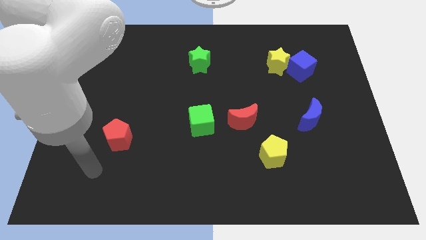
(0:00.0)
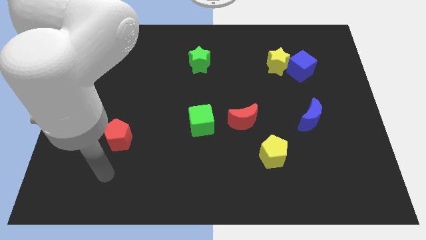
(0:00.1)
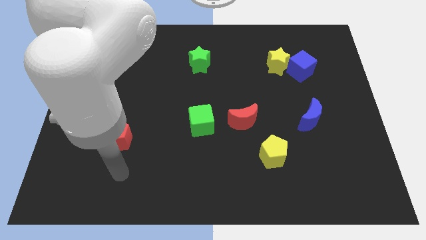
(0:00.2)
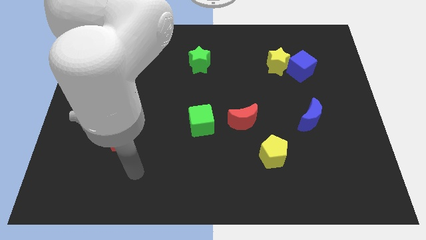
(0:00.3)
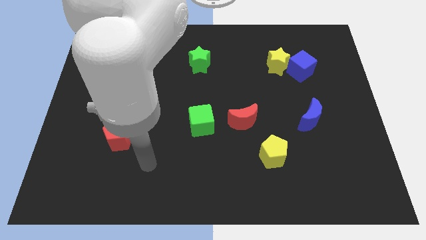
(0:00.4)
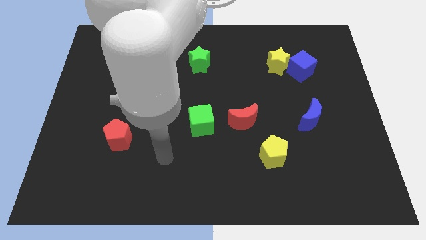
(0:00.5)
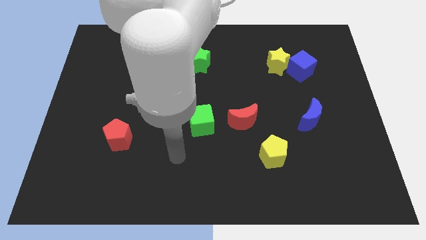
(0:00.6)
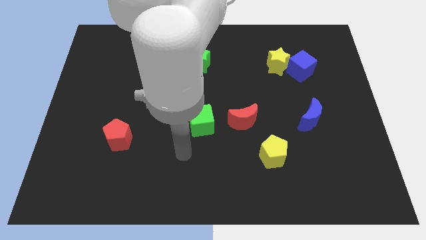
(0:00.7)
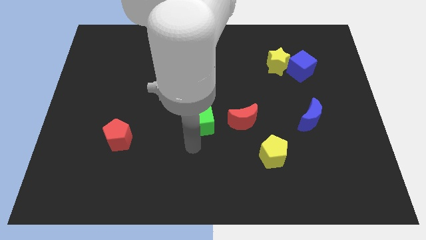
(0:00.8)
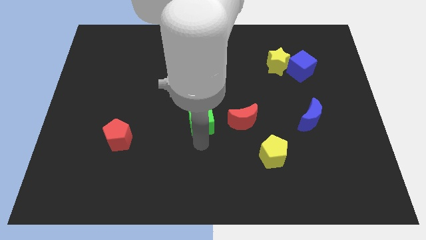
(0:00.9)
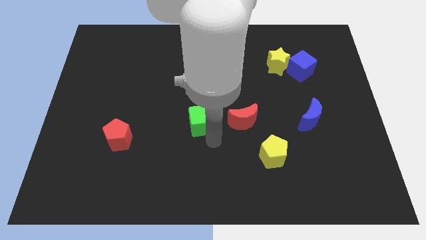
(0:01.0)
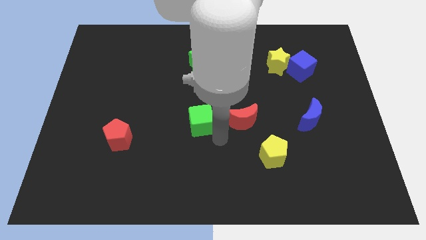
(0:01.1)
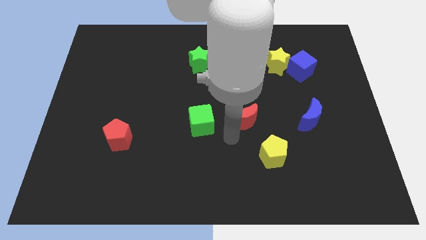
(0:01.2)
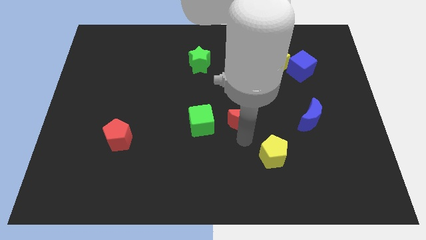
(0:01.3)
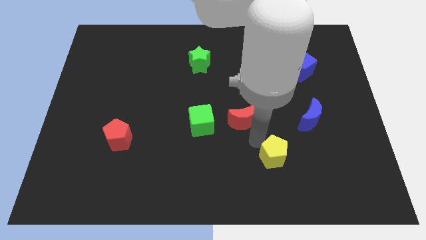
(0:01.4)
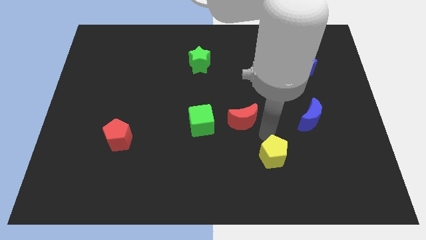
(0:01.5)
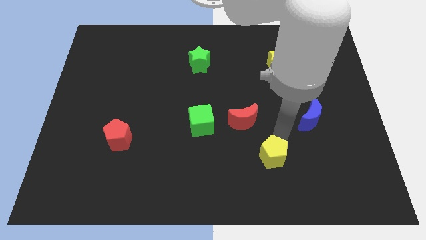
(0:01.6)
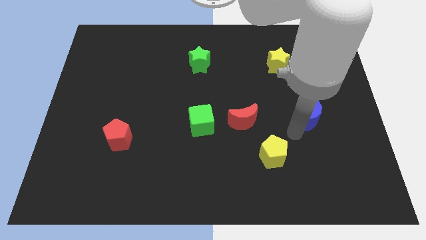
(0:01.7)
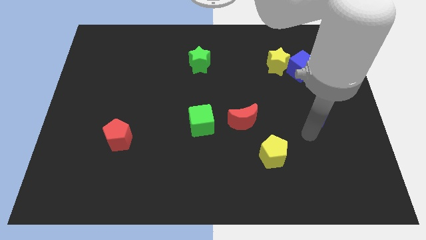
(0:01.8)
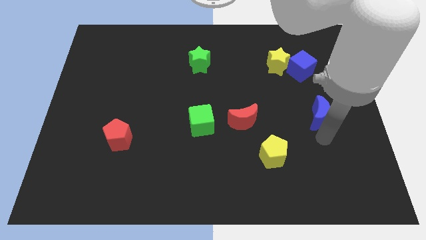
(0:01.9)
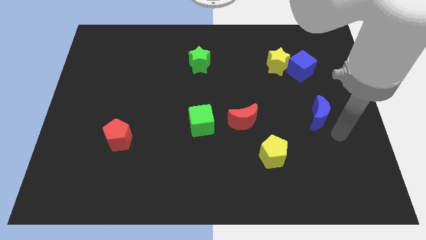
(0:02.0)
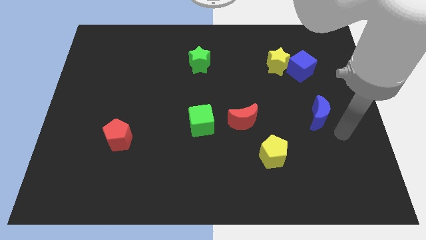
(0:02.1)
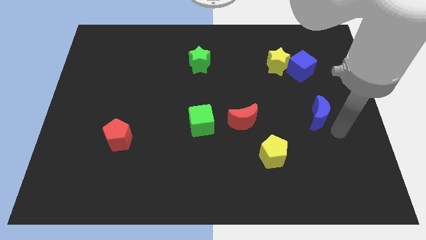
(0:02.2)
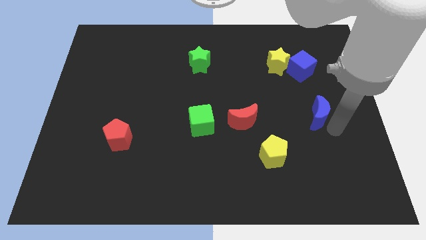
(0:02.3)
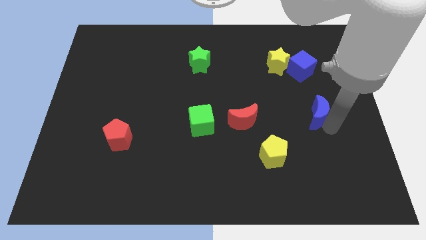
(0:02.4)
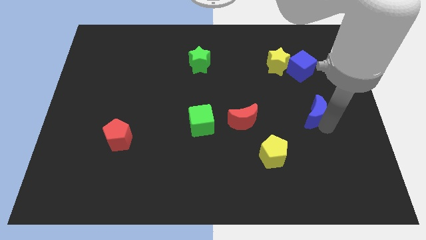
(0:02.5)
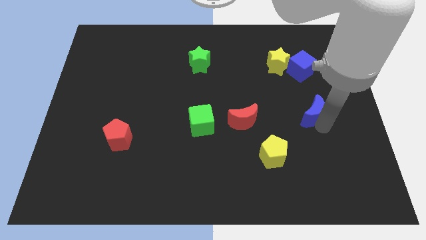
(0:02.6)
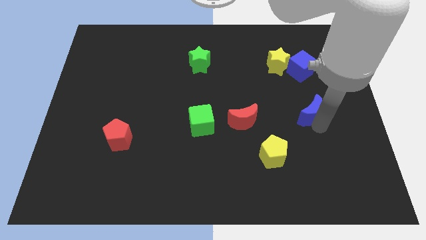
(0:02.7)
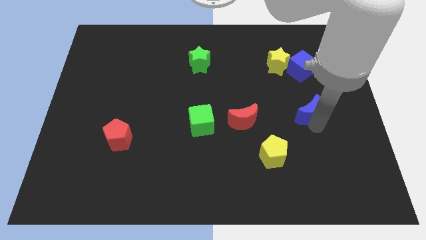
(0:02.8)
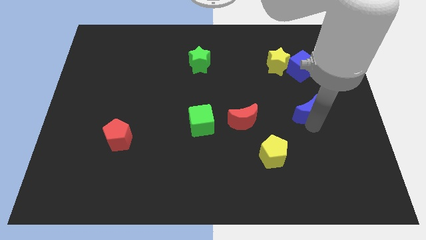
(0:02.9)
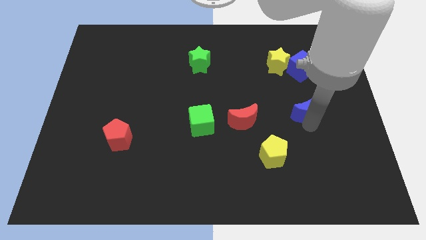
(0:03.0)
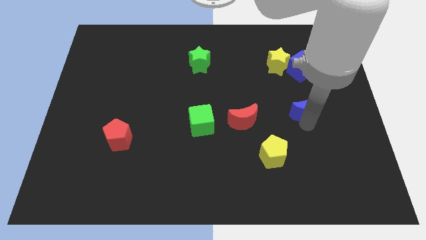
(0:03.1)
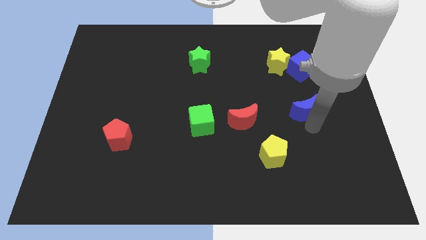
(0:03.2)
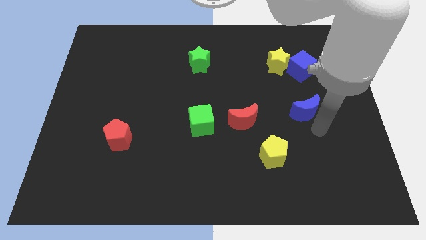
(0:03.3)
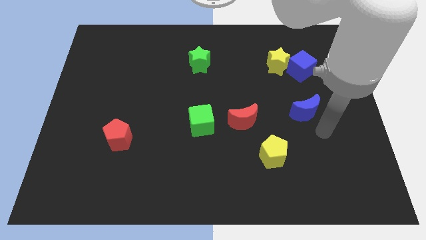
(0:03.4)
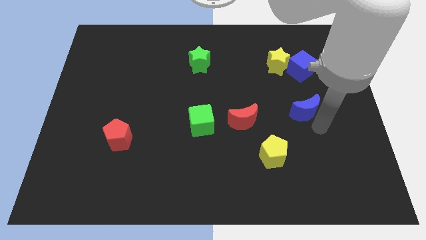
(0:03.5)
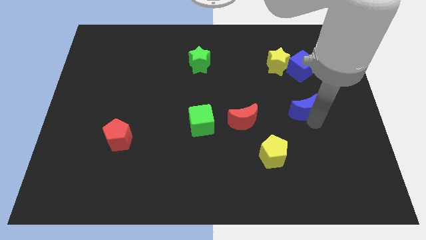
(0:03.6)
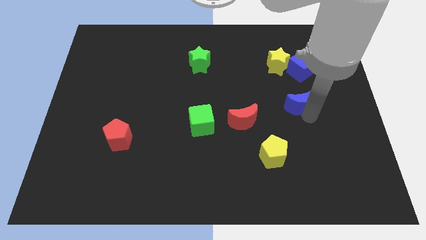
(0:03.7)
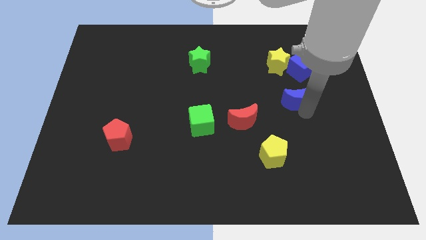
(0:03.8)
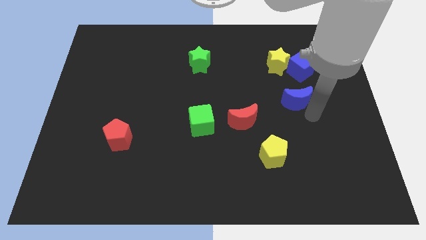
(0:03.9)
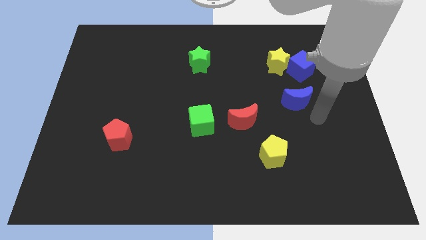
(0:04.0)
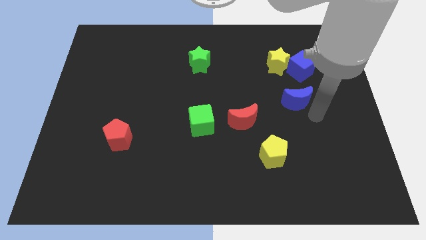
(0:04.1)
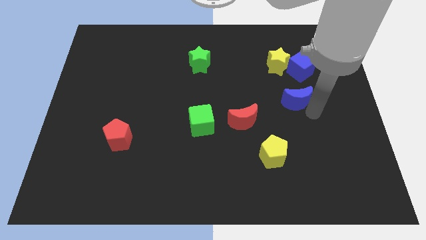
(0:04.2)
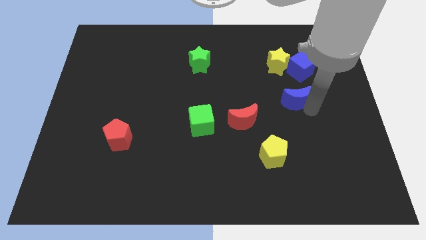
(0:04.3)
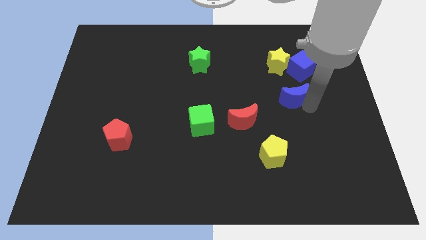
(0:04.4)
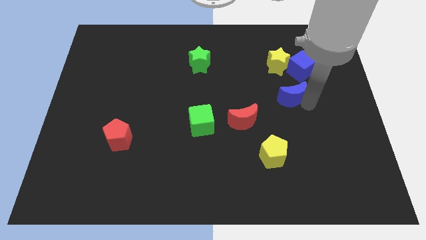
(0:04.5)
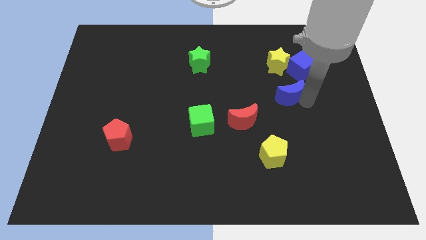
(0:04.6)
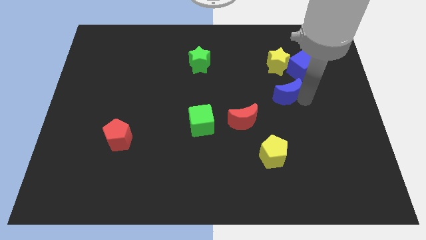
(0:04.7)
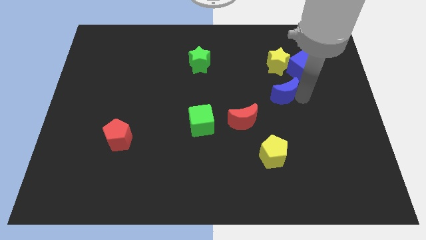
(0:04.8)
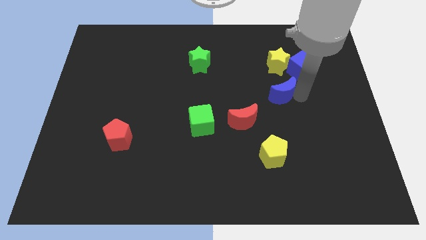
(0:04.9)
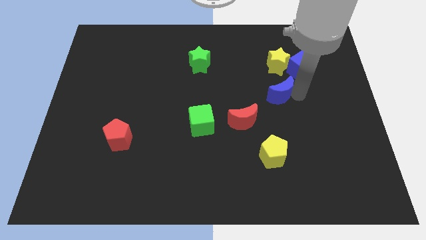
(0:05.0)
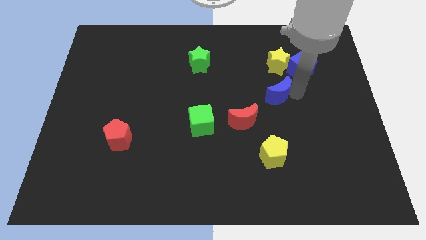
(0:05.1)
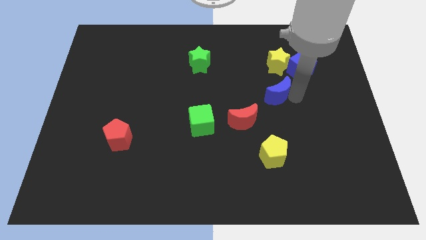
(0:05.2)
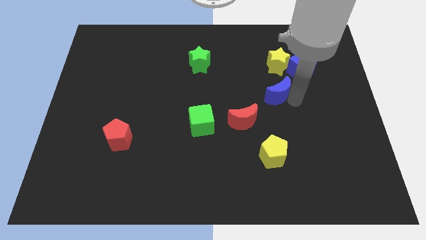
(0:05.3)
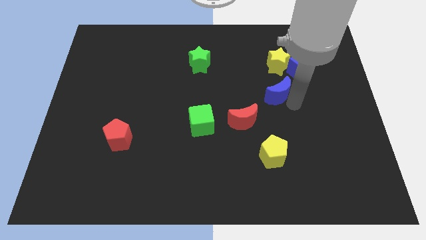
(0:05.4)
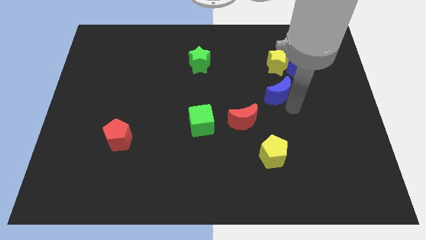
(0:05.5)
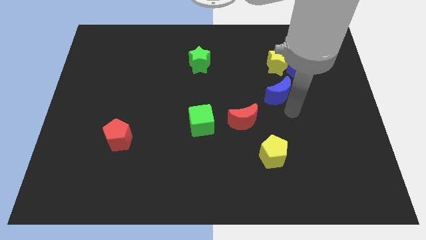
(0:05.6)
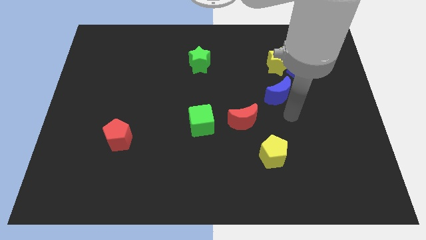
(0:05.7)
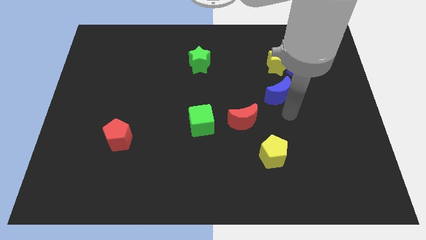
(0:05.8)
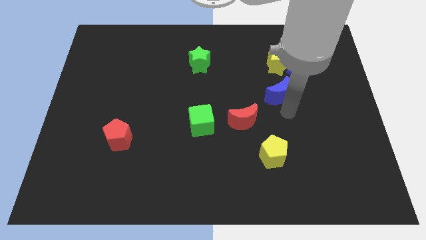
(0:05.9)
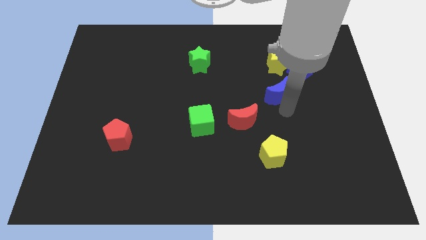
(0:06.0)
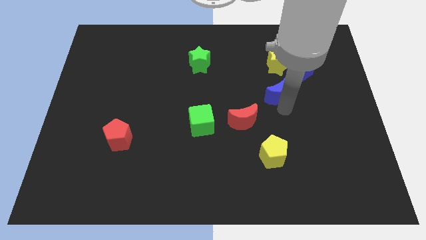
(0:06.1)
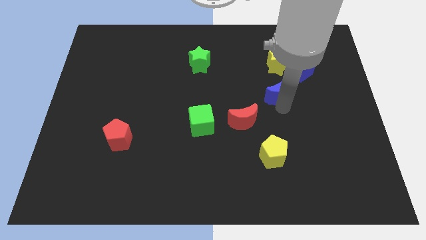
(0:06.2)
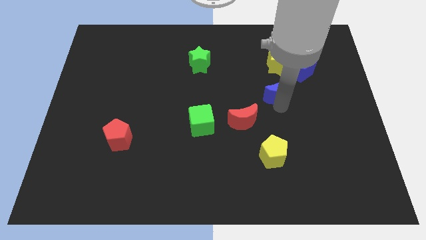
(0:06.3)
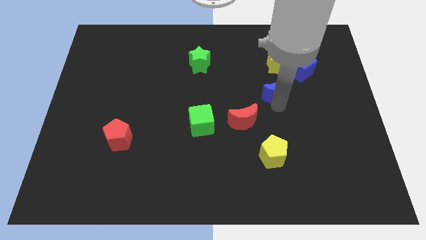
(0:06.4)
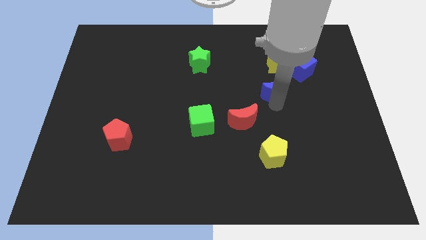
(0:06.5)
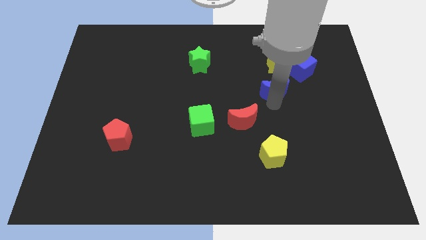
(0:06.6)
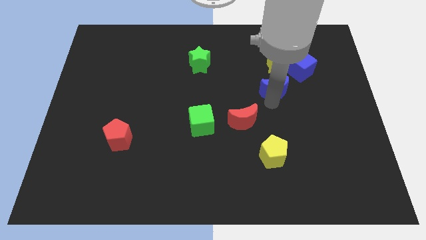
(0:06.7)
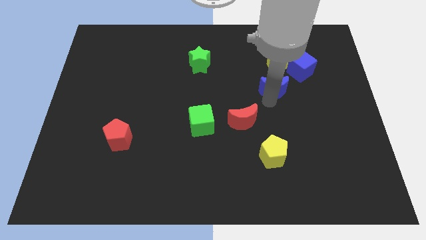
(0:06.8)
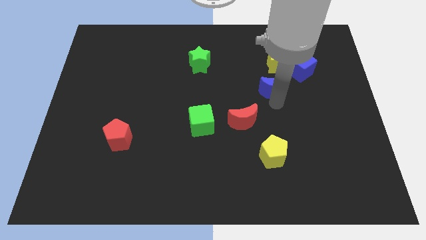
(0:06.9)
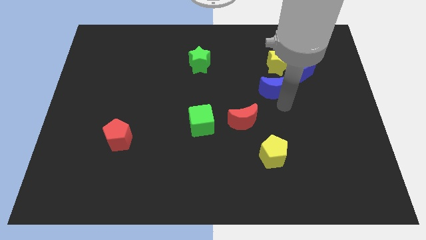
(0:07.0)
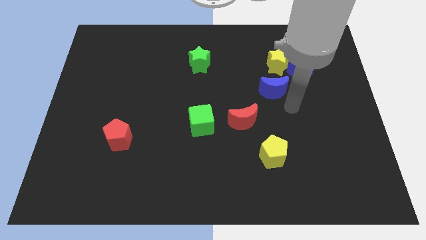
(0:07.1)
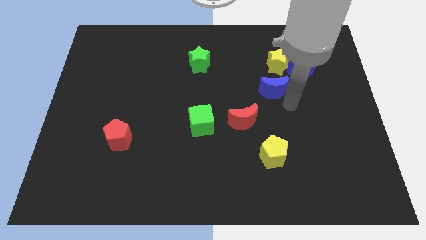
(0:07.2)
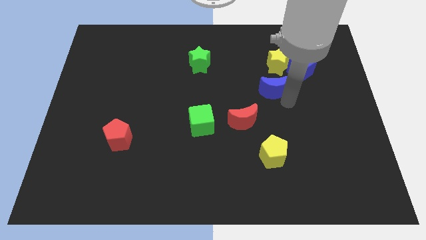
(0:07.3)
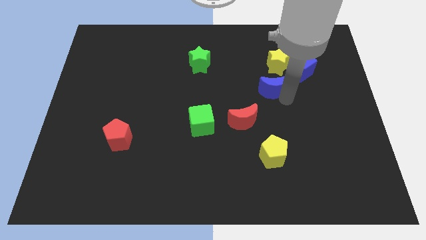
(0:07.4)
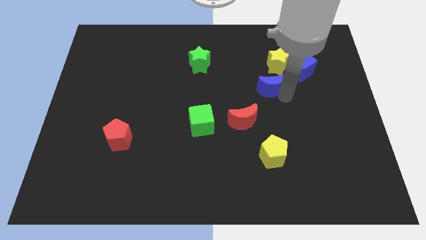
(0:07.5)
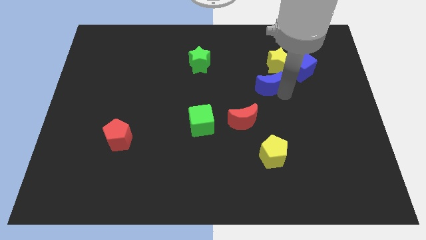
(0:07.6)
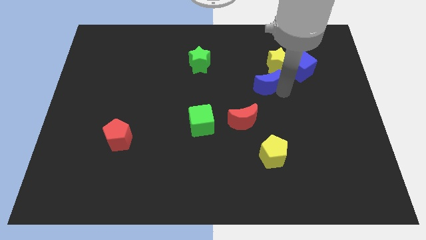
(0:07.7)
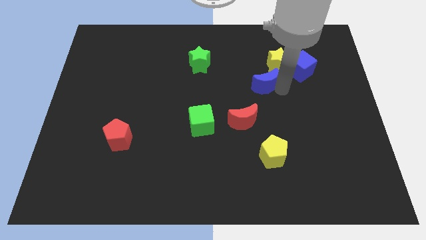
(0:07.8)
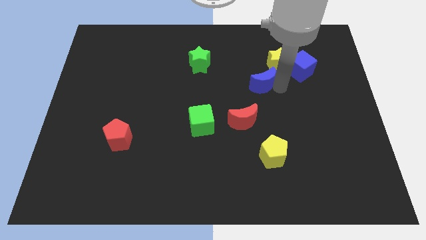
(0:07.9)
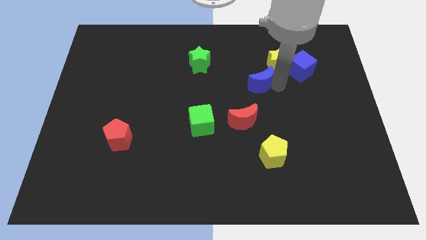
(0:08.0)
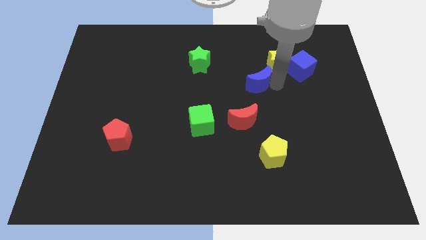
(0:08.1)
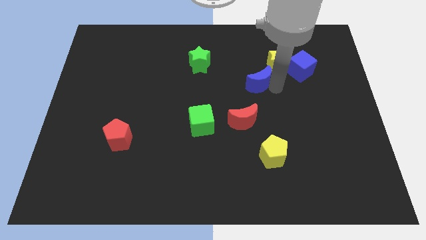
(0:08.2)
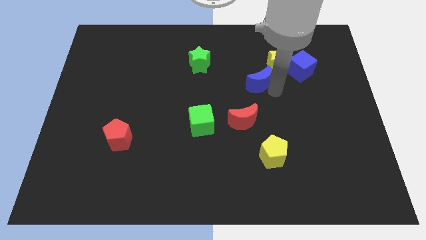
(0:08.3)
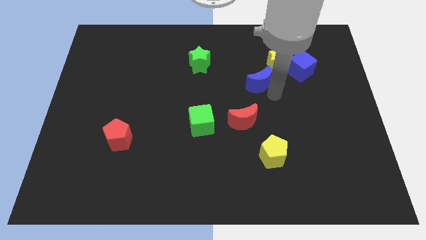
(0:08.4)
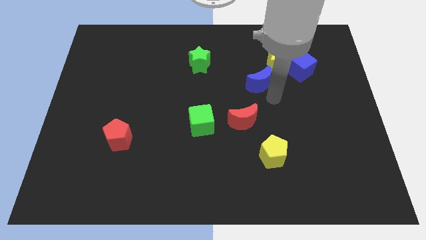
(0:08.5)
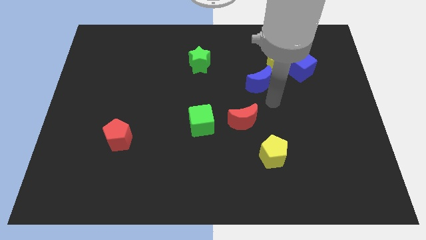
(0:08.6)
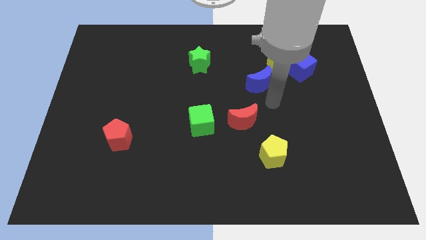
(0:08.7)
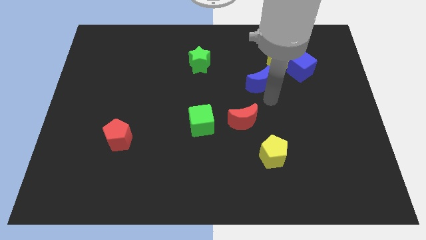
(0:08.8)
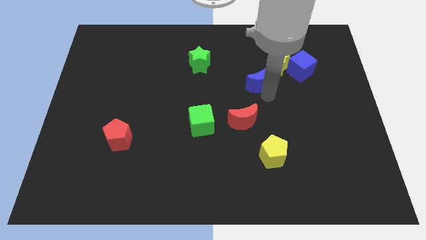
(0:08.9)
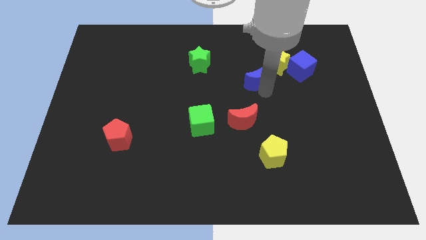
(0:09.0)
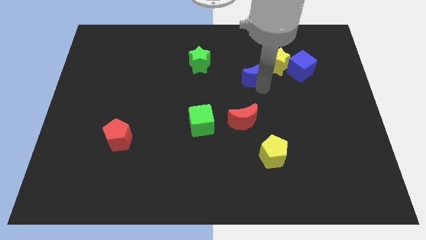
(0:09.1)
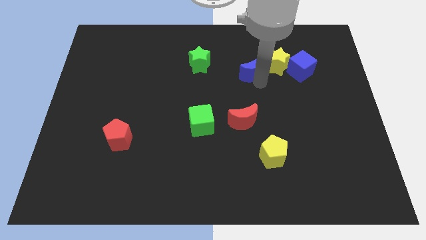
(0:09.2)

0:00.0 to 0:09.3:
slide the blue moon to the right side of the green star
